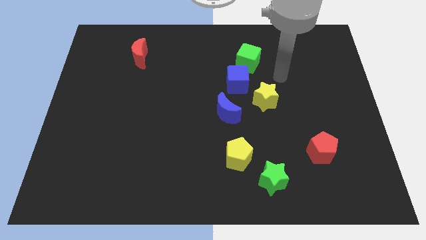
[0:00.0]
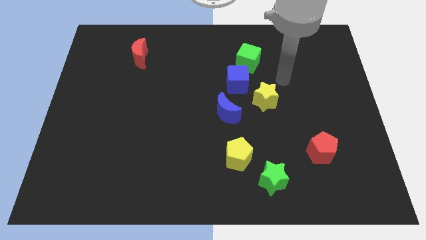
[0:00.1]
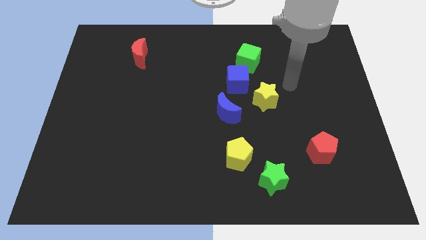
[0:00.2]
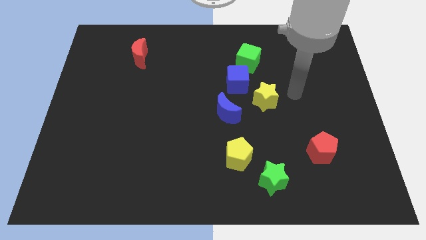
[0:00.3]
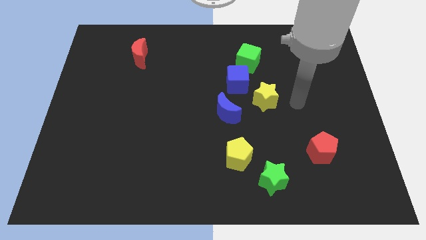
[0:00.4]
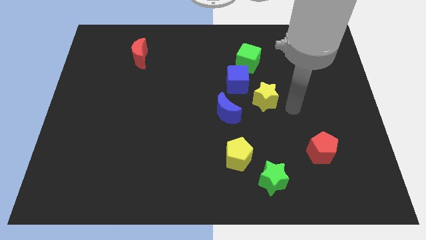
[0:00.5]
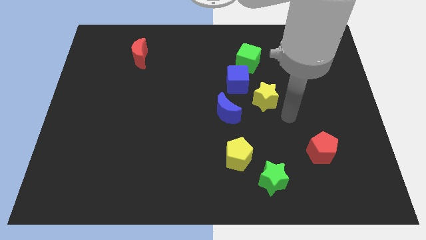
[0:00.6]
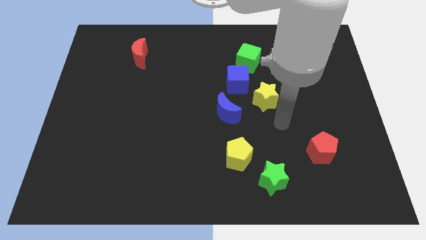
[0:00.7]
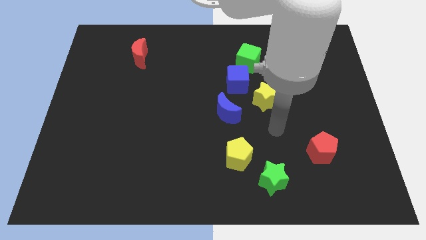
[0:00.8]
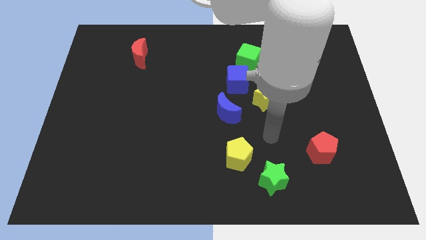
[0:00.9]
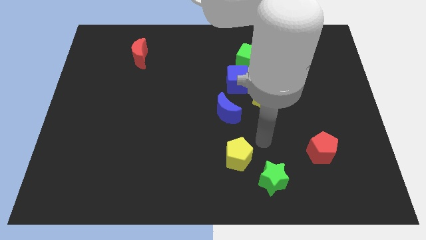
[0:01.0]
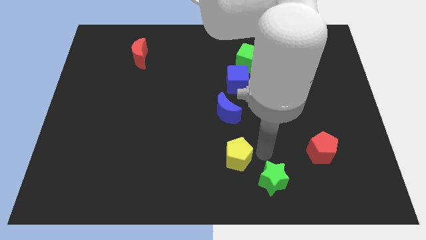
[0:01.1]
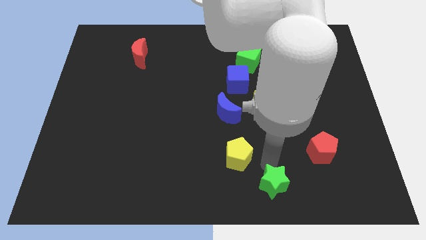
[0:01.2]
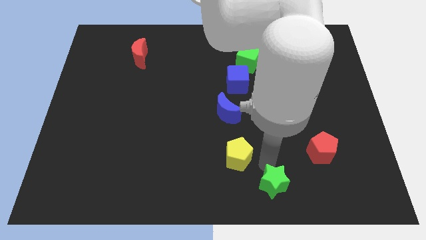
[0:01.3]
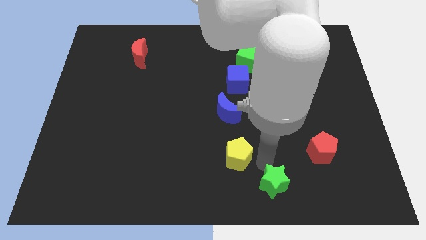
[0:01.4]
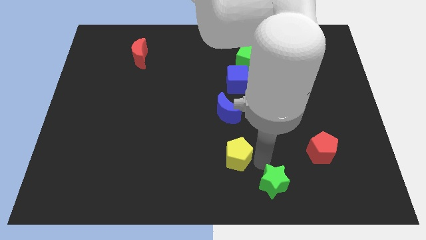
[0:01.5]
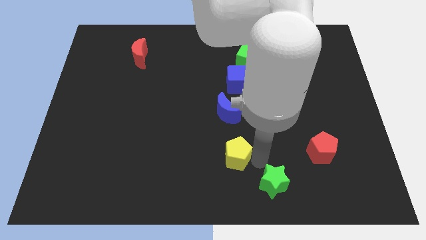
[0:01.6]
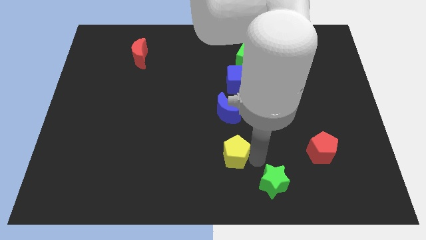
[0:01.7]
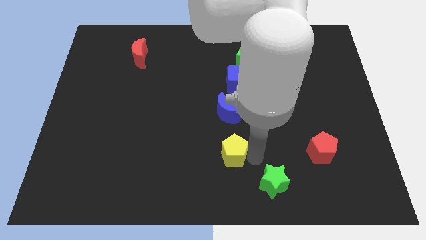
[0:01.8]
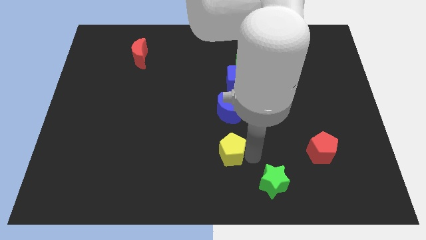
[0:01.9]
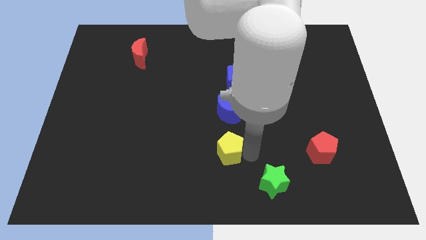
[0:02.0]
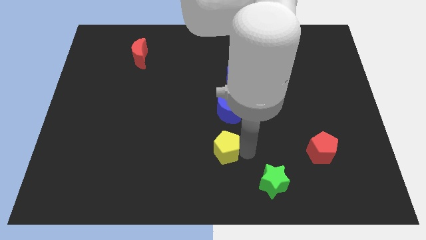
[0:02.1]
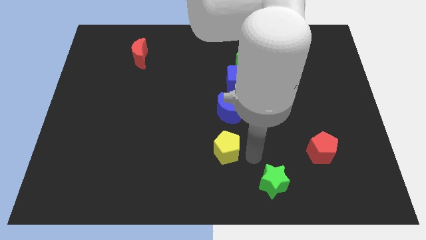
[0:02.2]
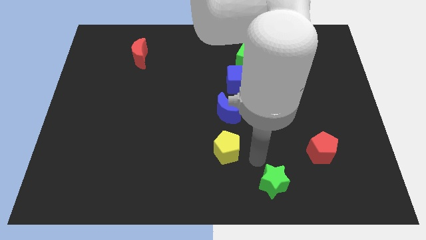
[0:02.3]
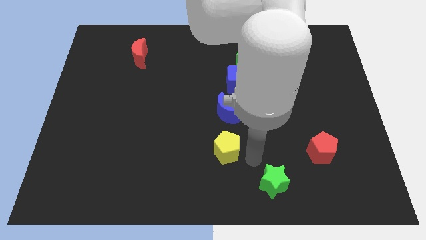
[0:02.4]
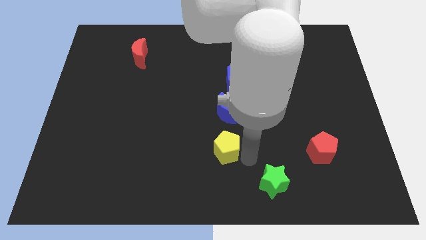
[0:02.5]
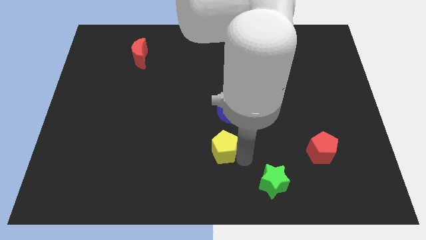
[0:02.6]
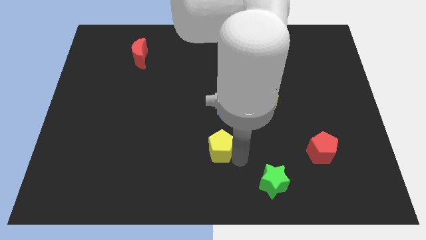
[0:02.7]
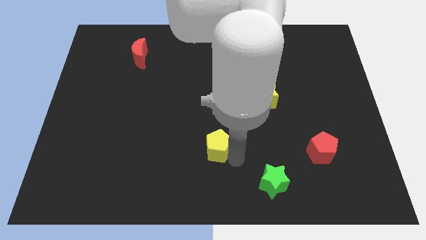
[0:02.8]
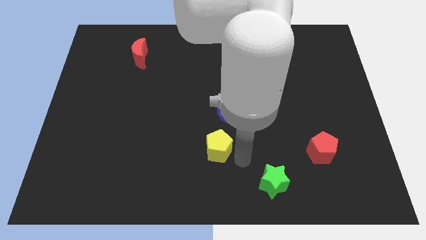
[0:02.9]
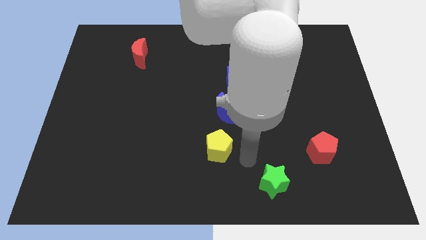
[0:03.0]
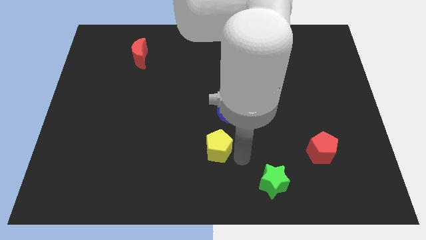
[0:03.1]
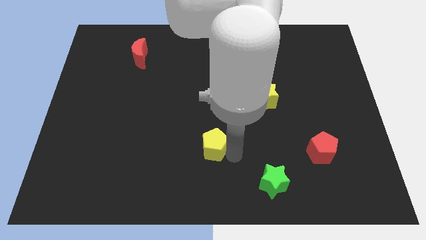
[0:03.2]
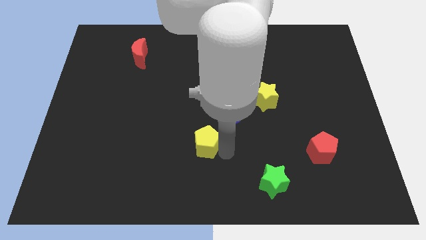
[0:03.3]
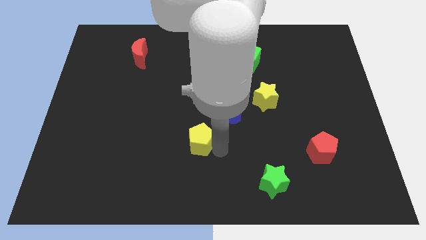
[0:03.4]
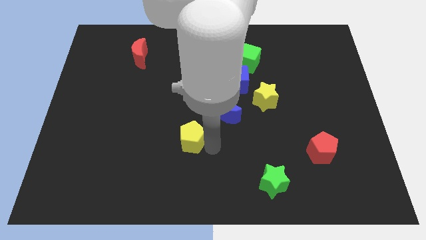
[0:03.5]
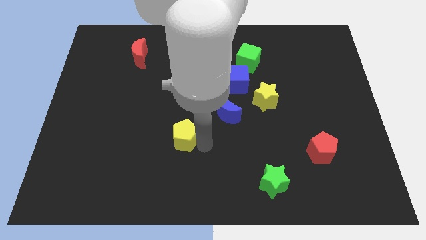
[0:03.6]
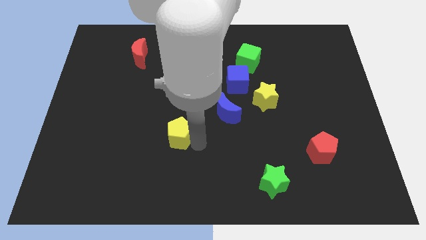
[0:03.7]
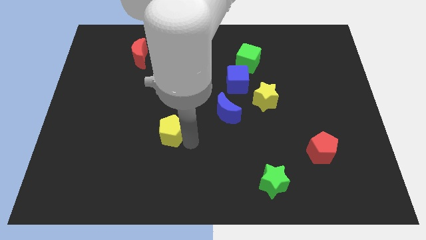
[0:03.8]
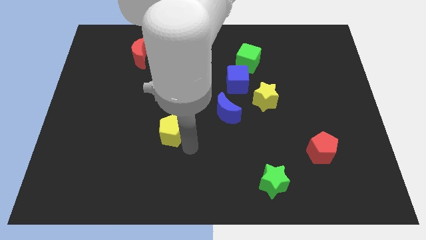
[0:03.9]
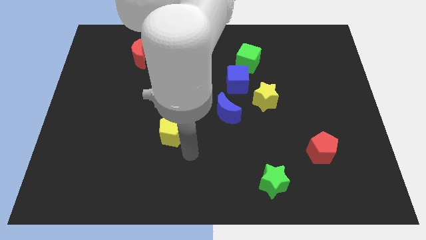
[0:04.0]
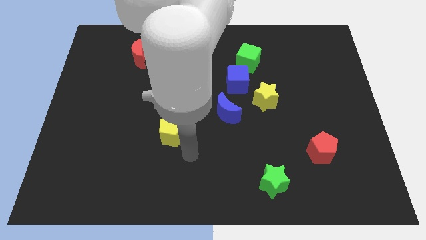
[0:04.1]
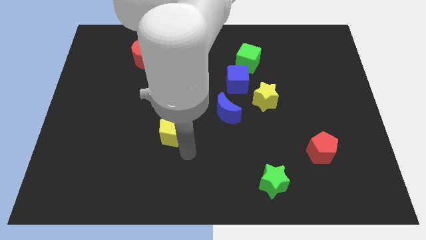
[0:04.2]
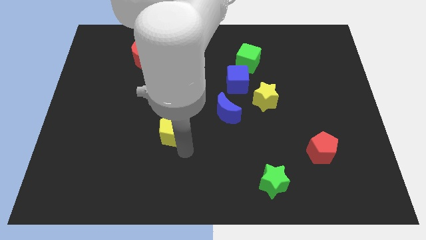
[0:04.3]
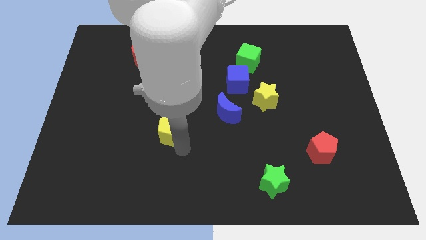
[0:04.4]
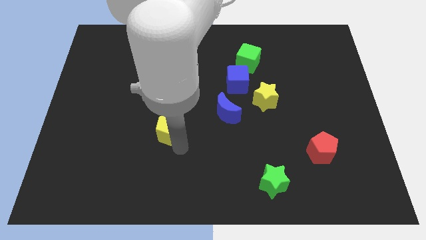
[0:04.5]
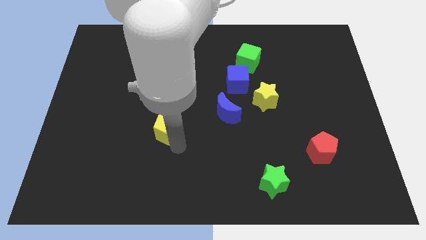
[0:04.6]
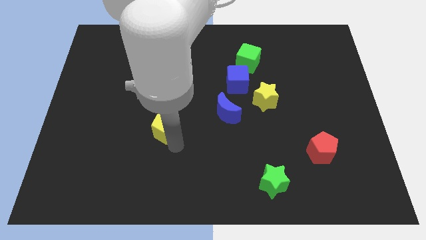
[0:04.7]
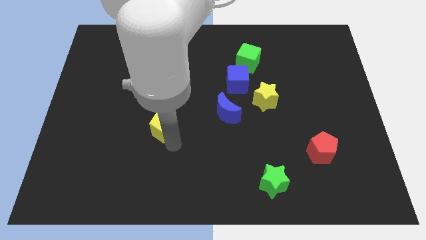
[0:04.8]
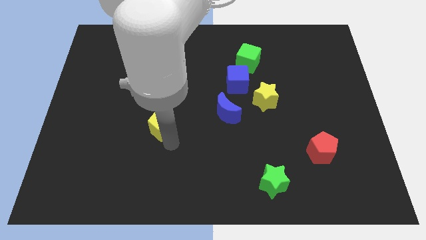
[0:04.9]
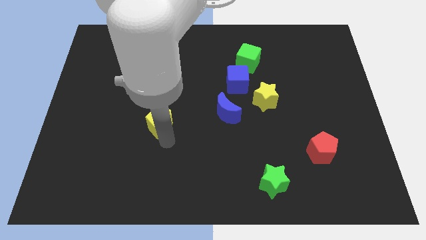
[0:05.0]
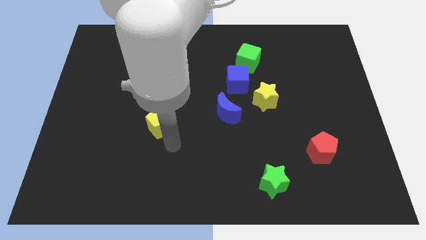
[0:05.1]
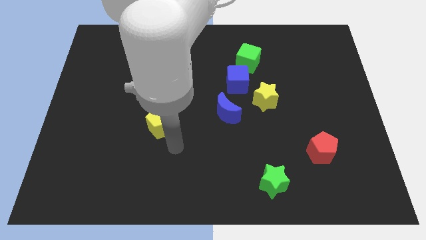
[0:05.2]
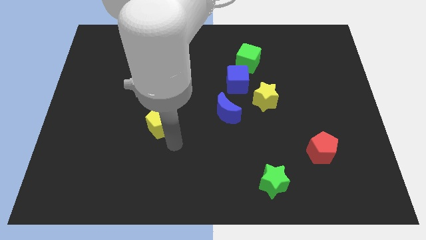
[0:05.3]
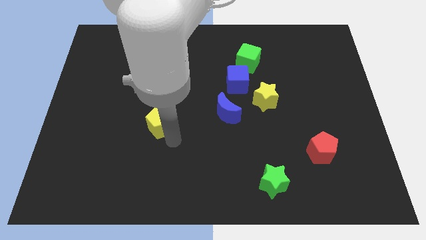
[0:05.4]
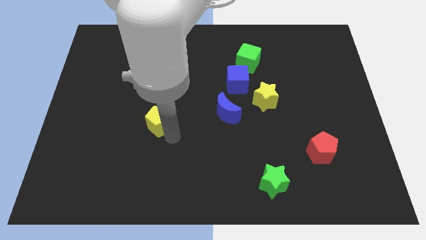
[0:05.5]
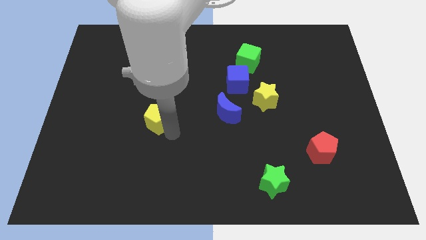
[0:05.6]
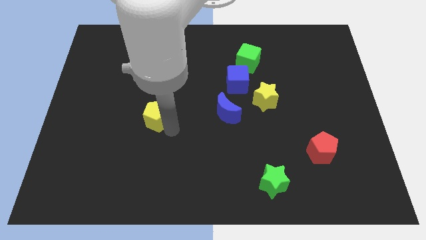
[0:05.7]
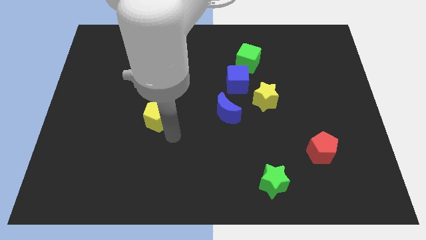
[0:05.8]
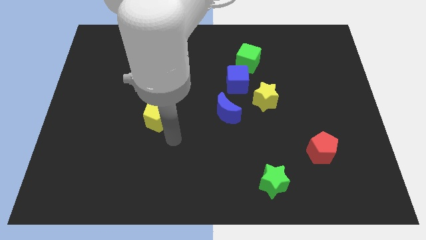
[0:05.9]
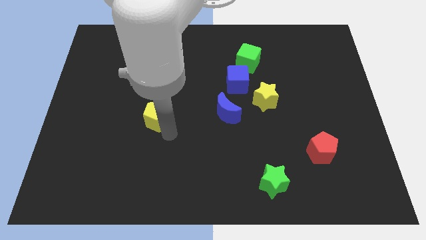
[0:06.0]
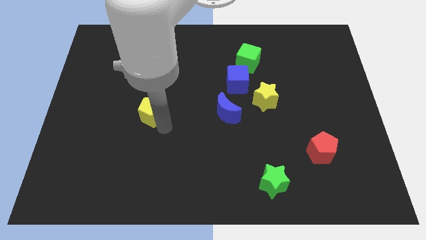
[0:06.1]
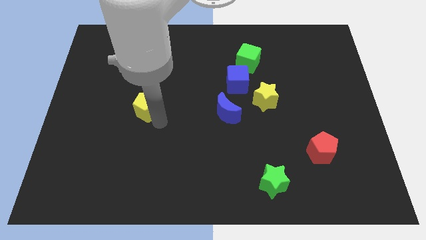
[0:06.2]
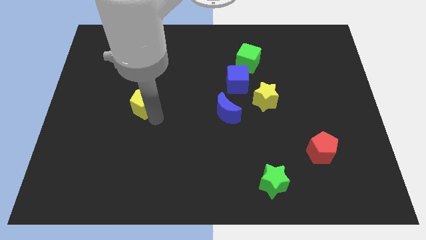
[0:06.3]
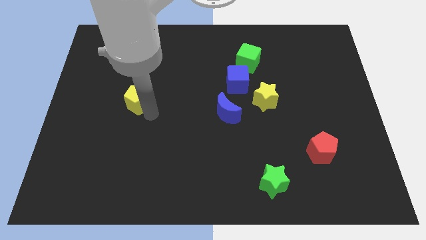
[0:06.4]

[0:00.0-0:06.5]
put the yellow pentagon to the bottom of the red moon
